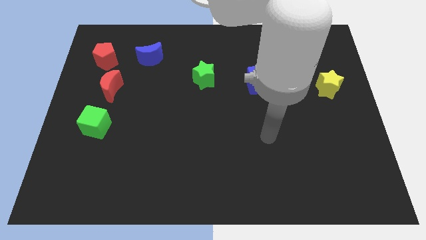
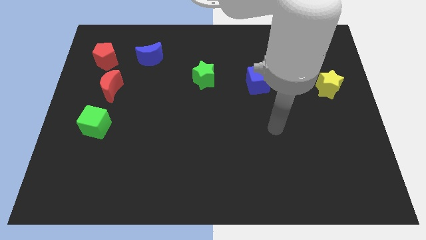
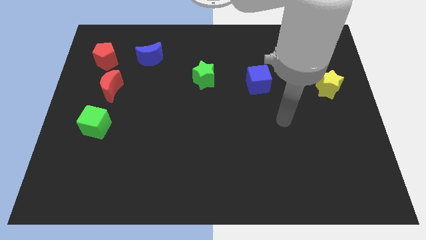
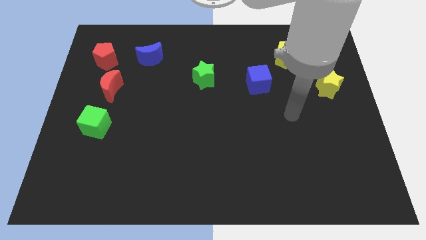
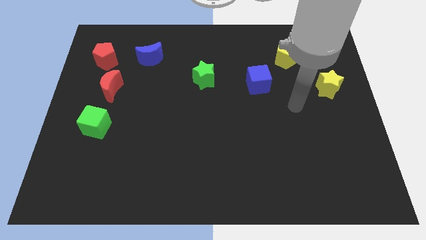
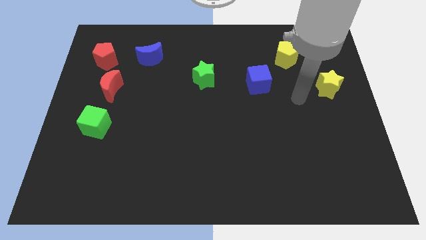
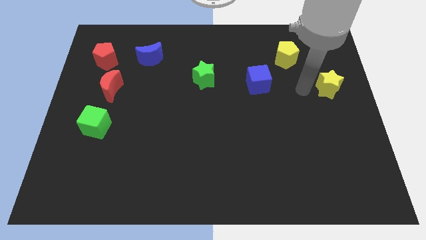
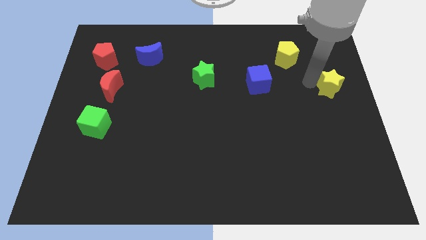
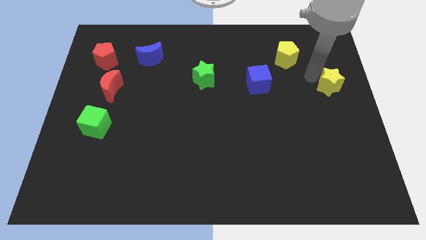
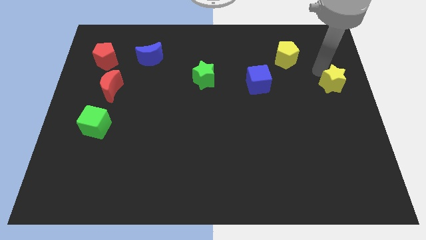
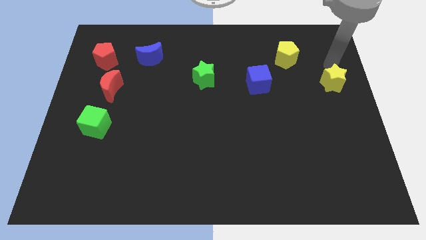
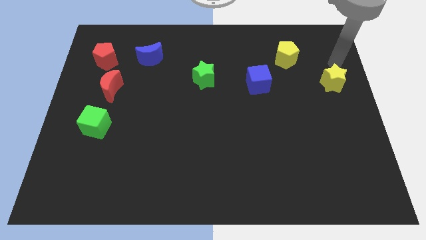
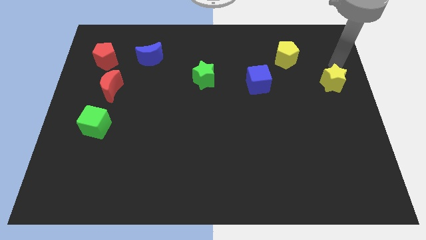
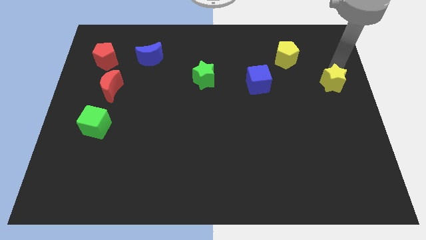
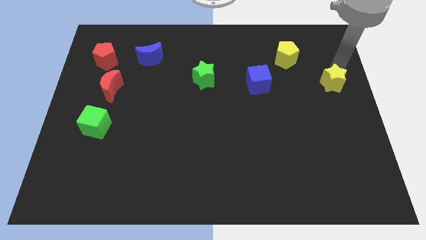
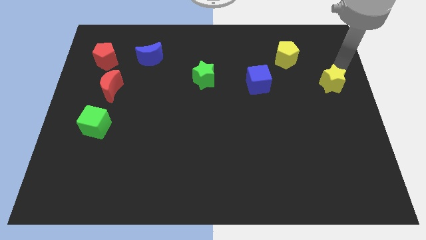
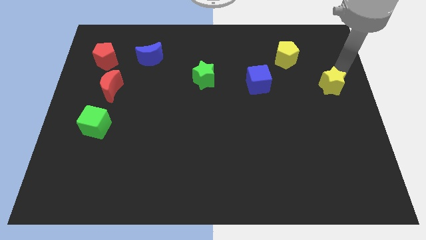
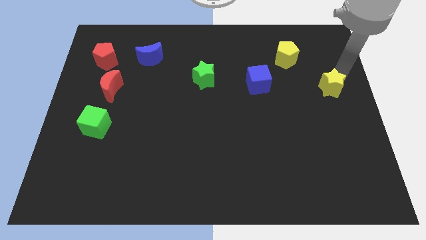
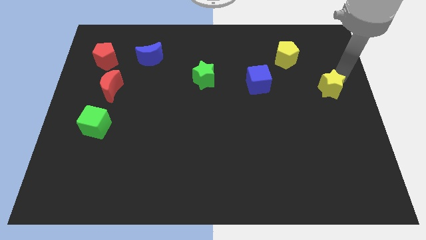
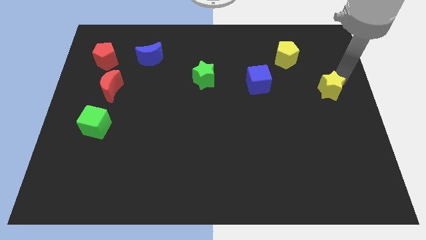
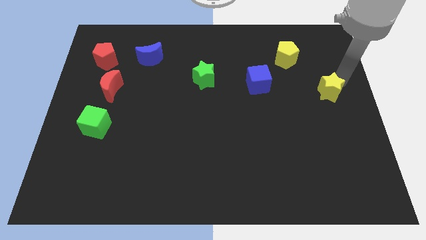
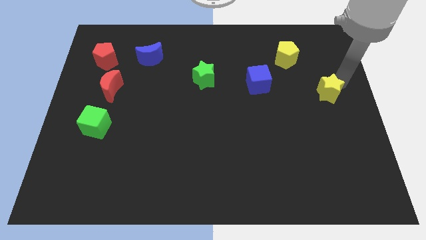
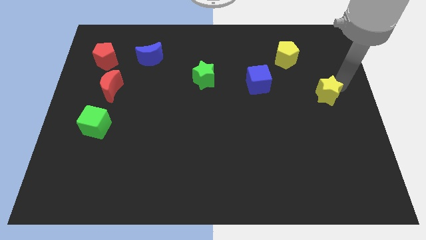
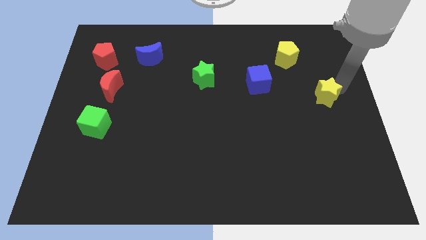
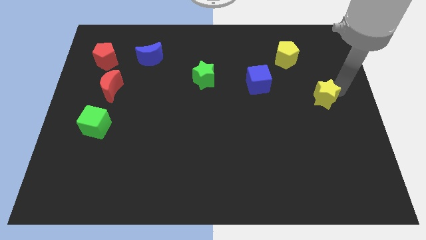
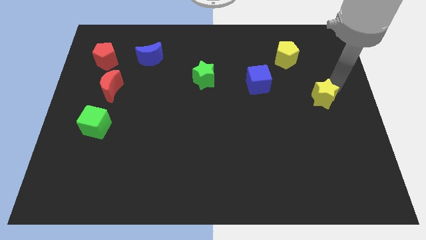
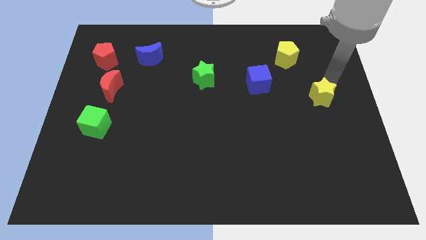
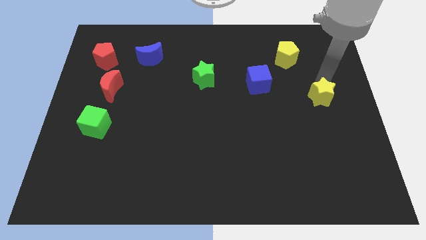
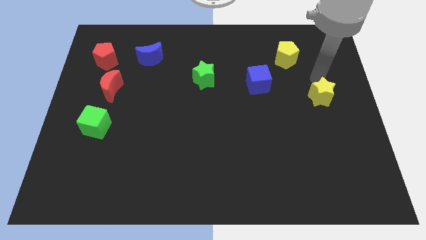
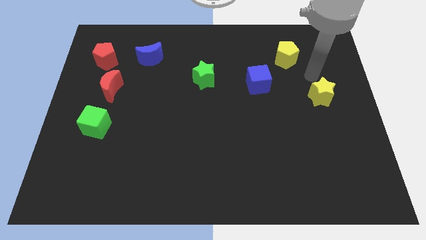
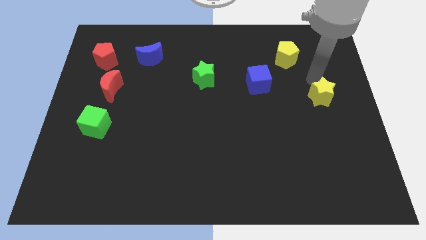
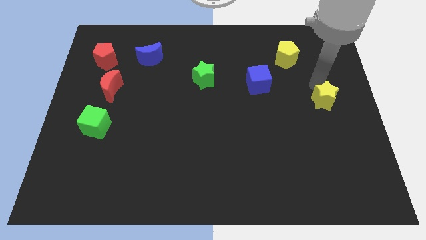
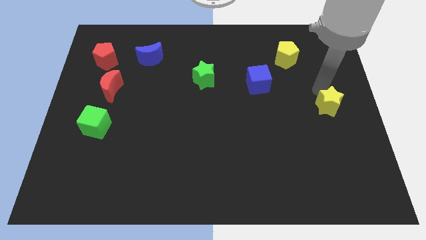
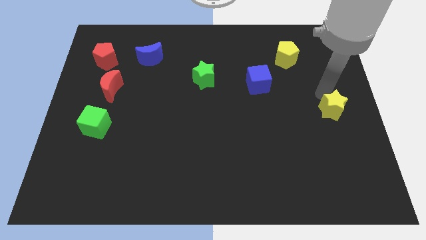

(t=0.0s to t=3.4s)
slightly slide the yellow star downwards

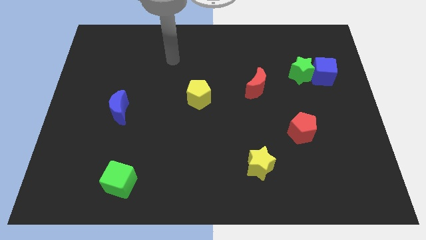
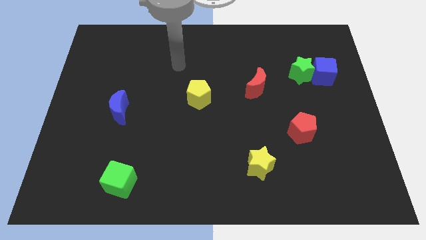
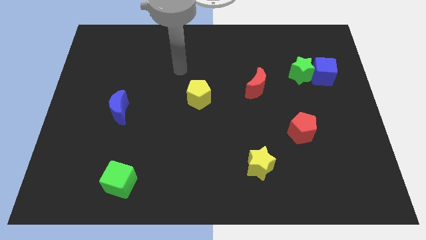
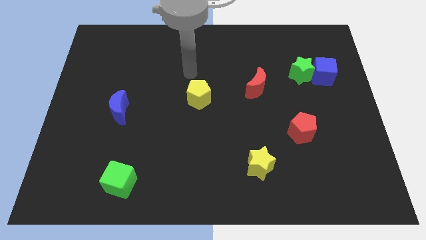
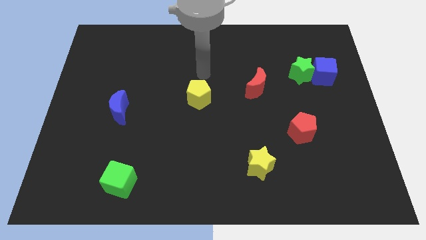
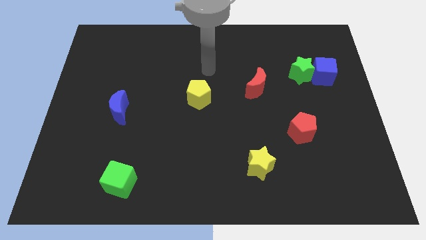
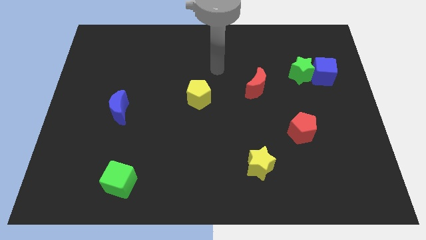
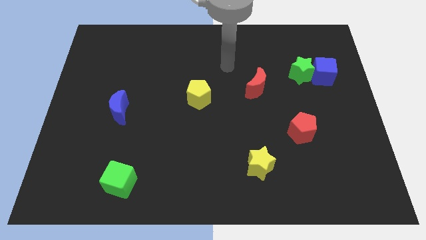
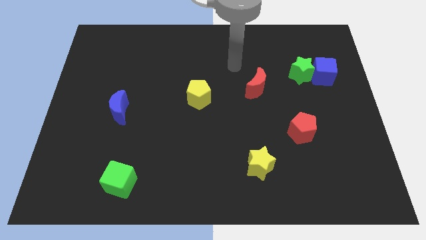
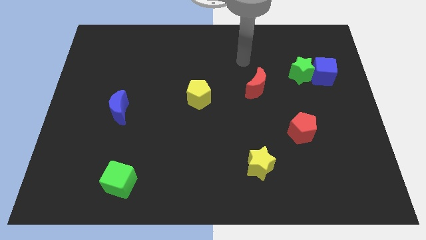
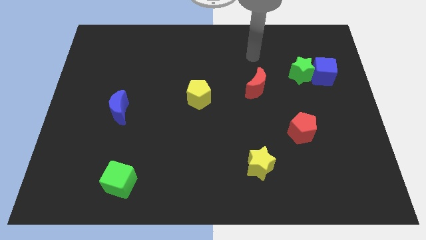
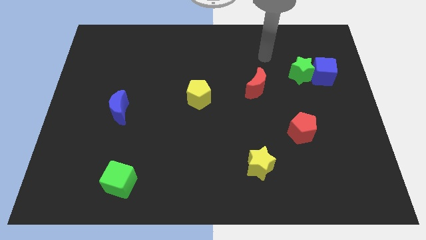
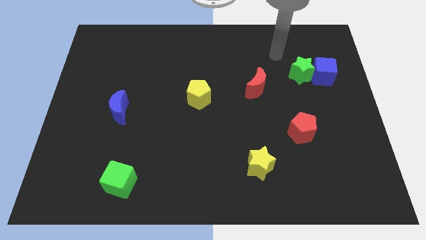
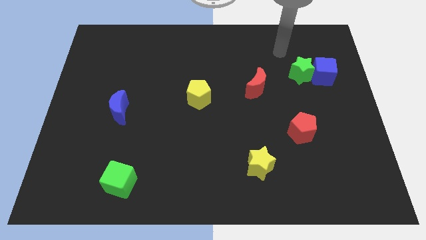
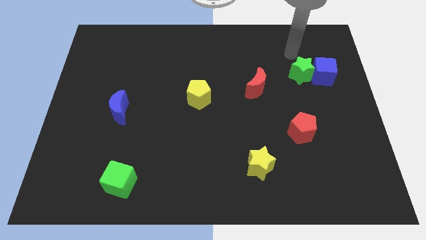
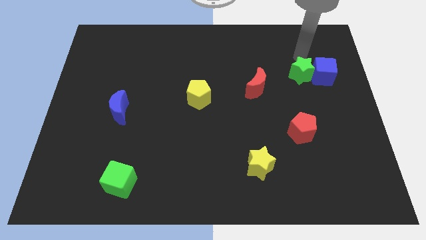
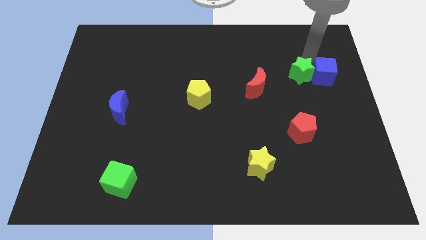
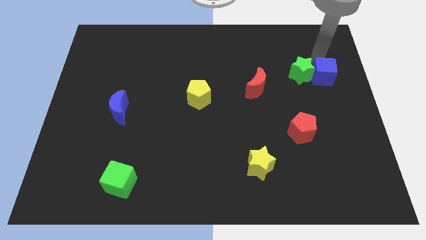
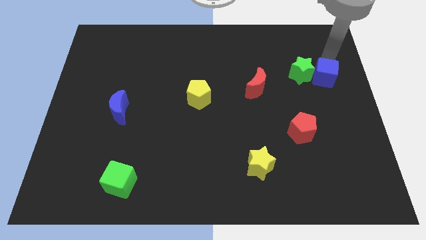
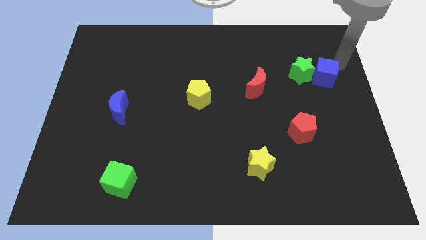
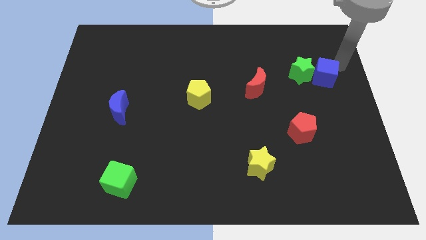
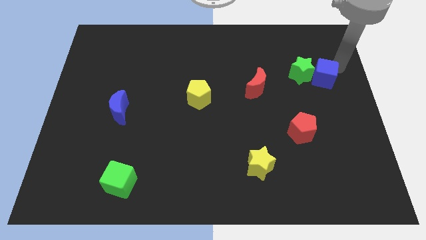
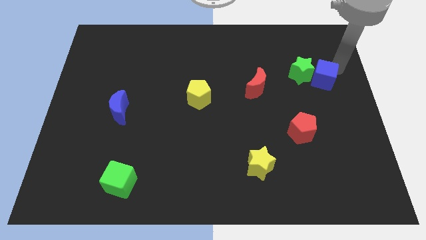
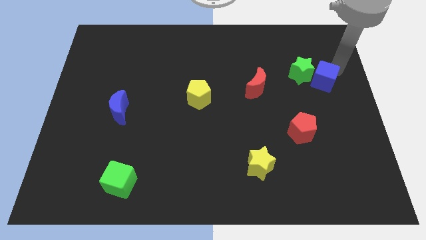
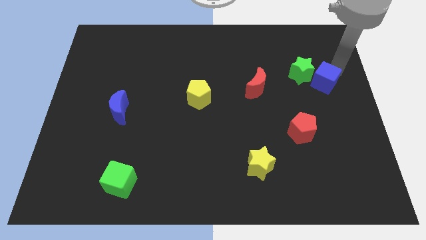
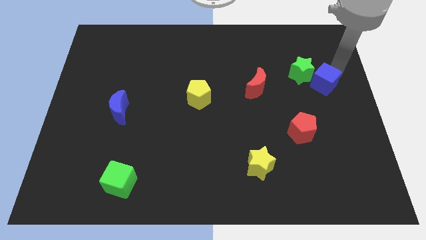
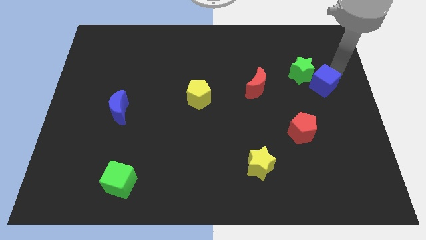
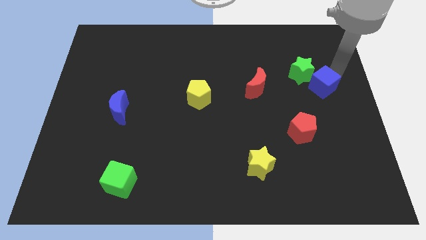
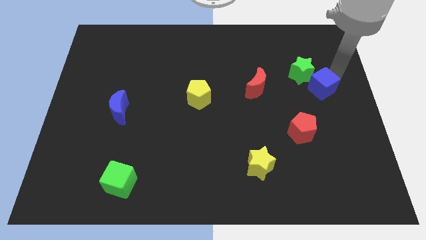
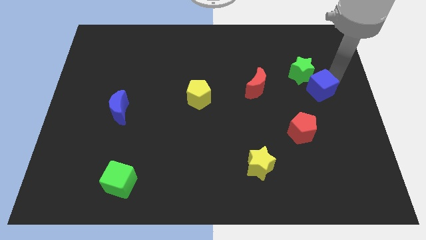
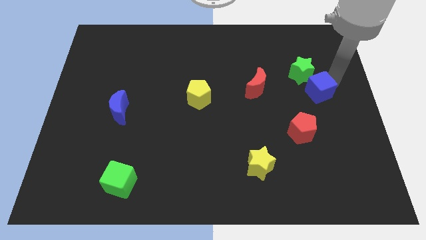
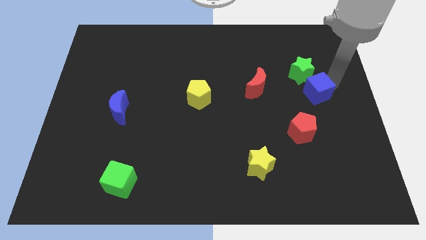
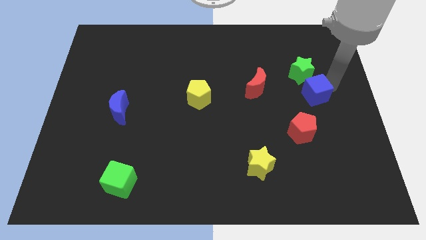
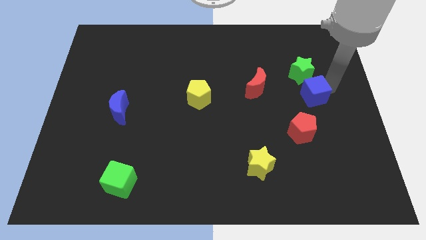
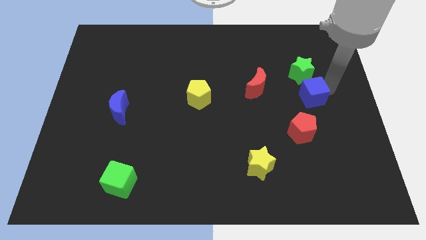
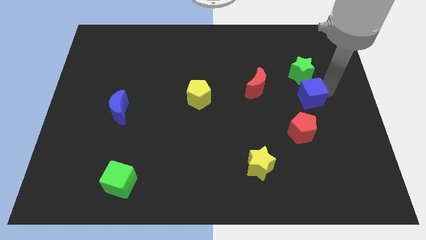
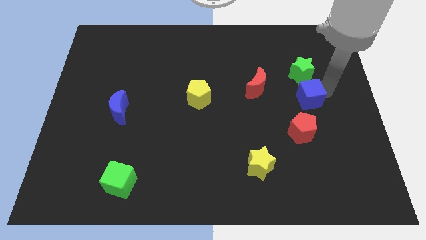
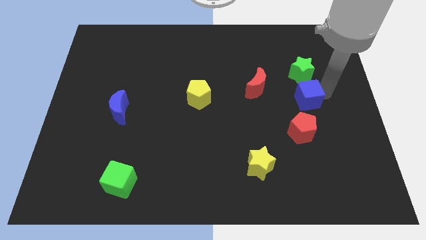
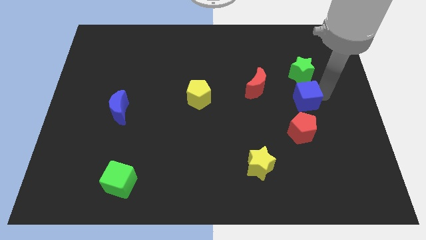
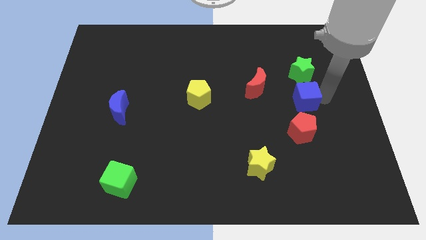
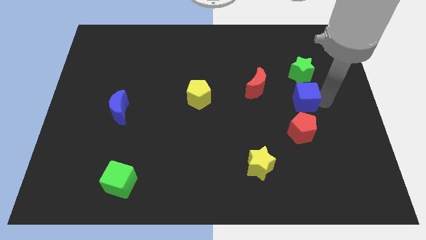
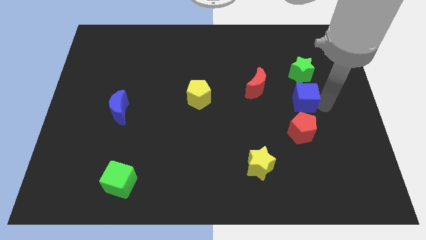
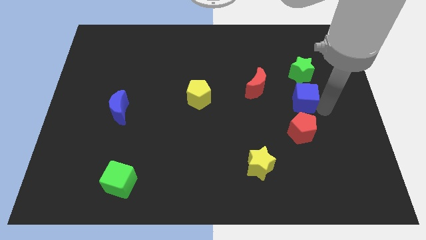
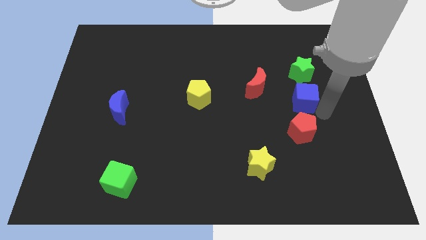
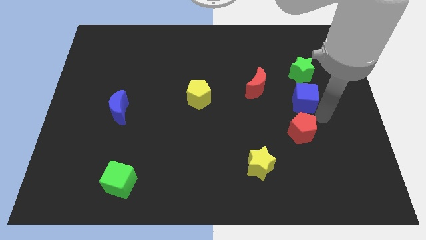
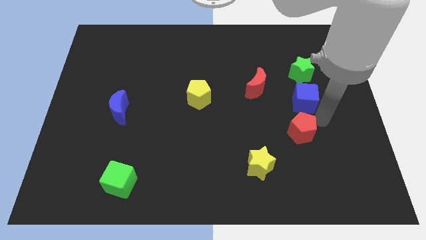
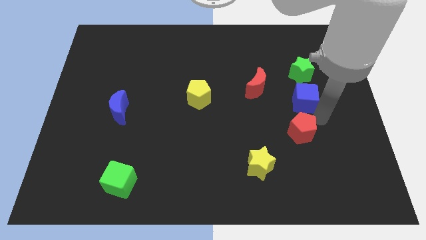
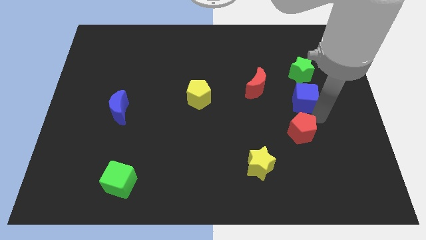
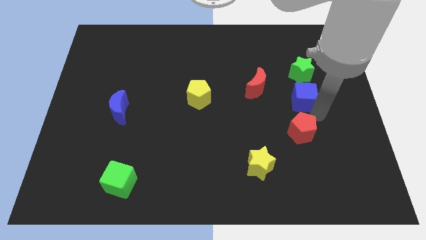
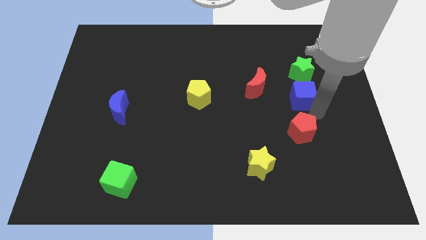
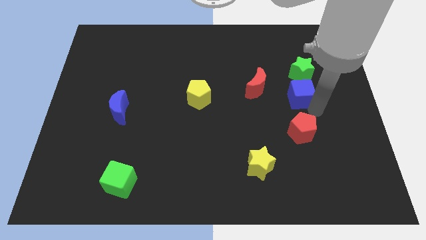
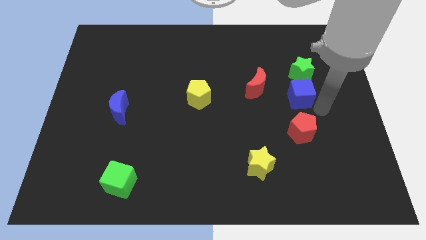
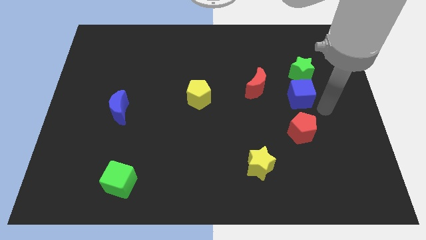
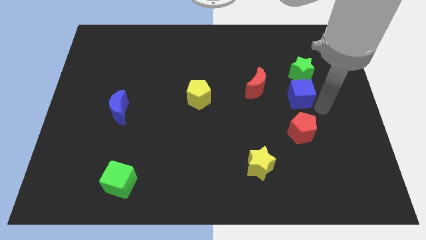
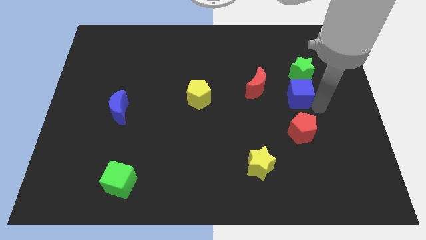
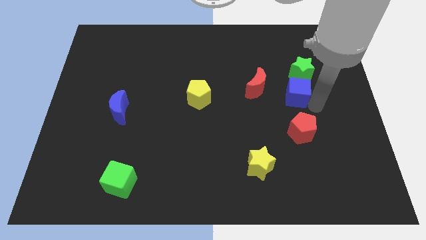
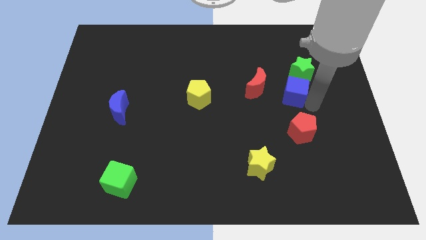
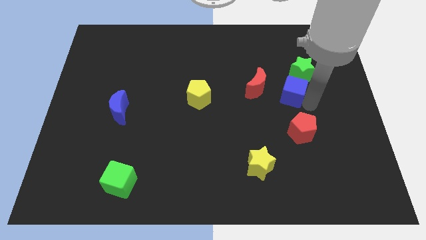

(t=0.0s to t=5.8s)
slightly push the blue cube to the left
